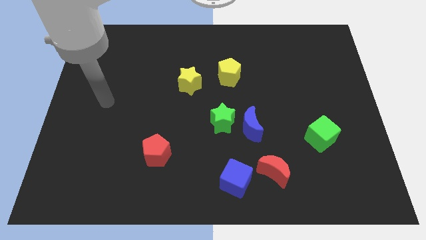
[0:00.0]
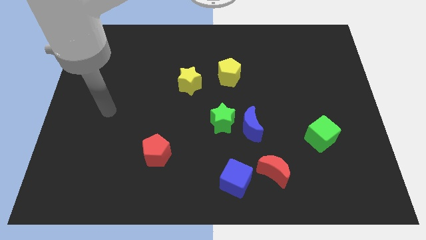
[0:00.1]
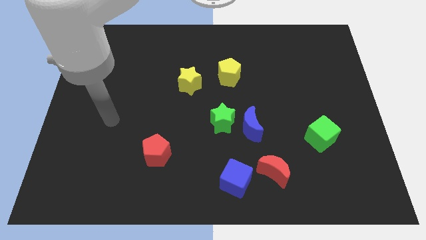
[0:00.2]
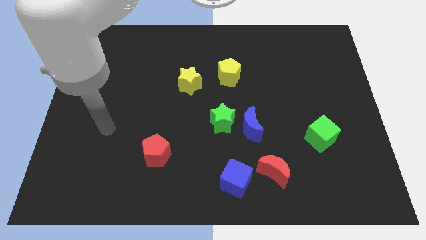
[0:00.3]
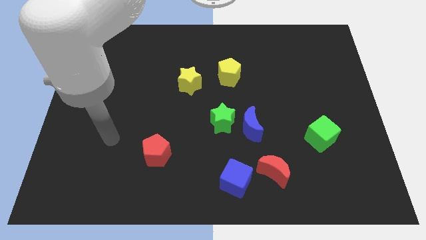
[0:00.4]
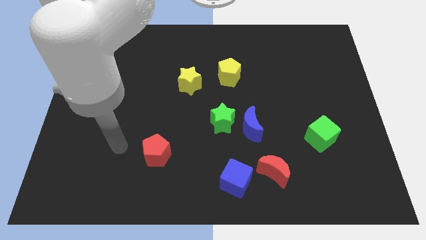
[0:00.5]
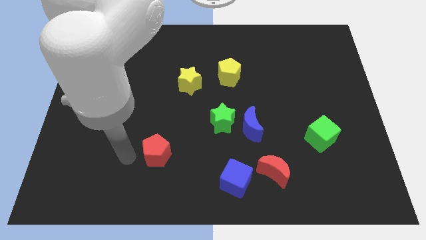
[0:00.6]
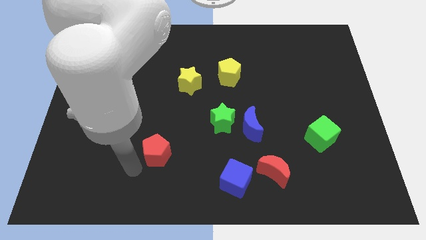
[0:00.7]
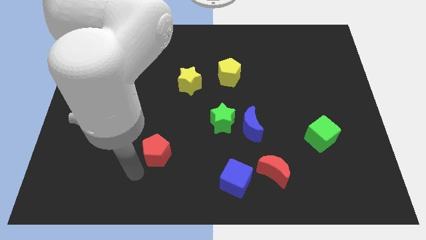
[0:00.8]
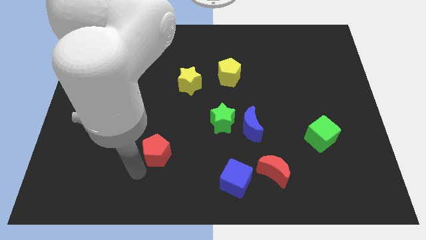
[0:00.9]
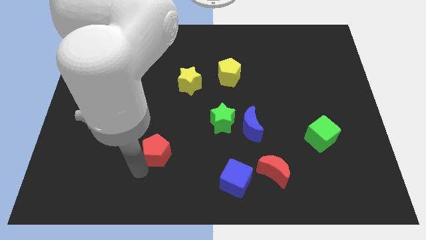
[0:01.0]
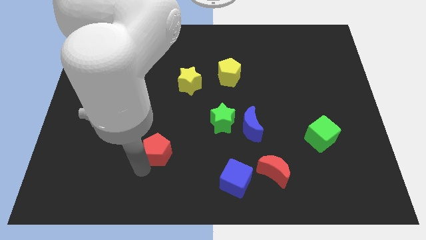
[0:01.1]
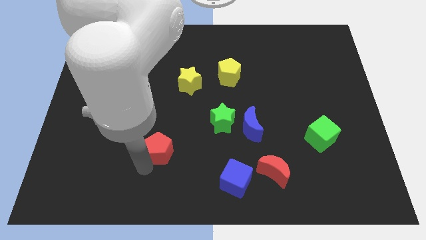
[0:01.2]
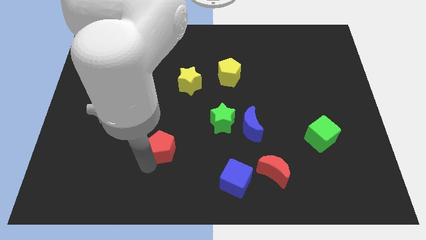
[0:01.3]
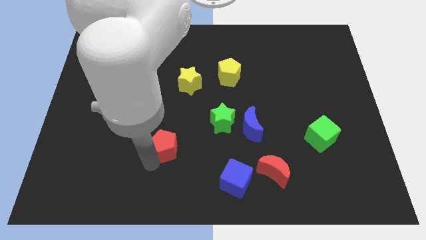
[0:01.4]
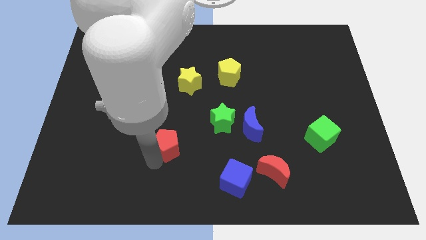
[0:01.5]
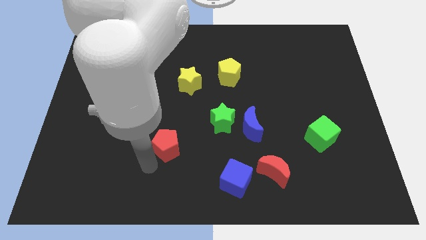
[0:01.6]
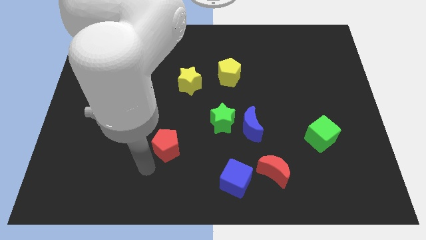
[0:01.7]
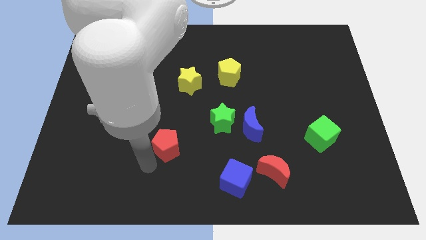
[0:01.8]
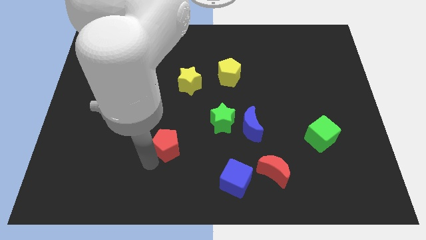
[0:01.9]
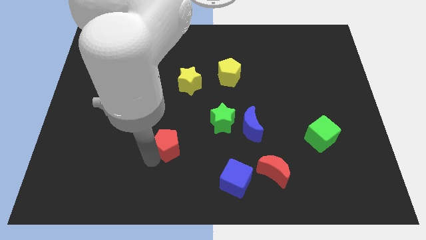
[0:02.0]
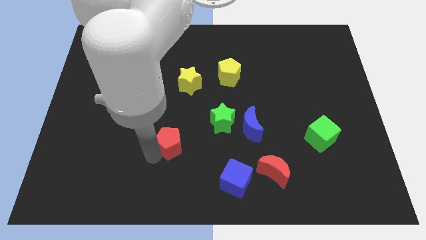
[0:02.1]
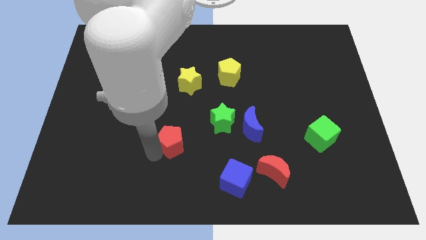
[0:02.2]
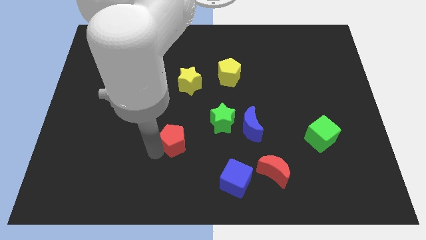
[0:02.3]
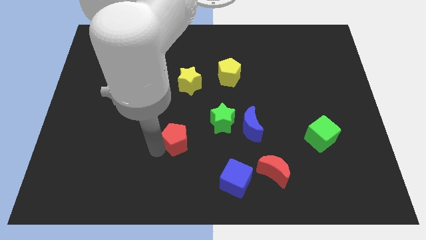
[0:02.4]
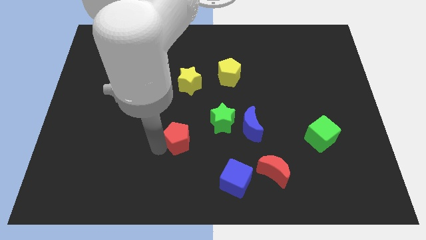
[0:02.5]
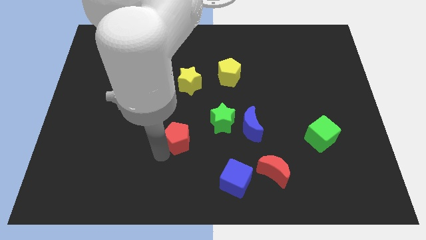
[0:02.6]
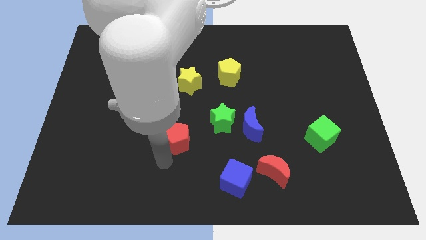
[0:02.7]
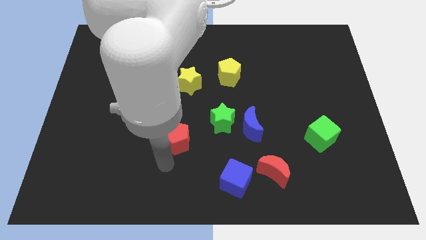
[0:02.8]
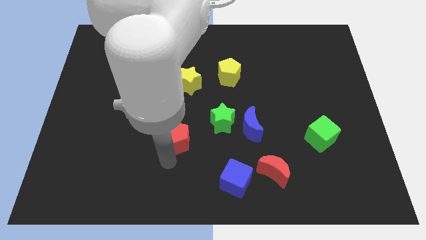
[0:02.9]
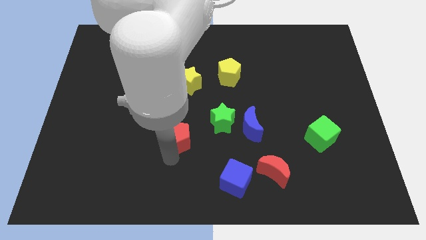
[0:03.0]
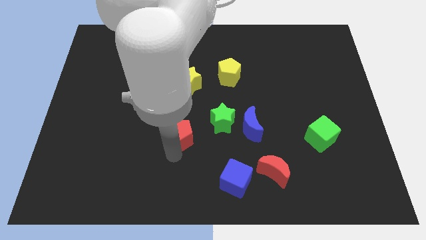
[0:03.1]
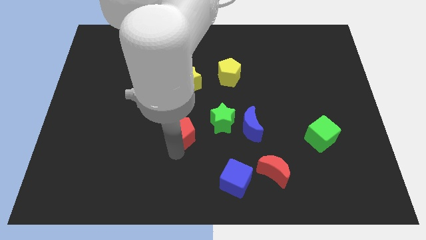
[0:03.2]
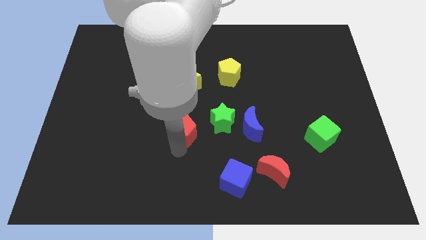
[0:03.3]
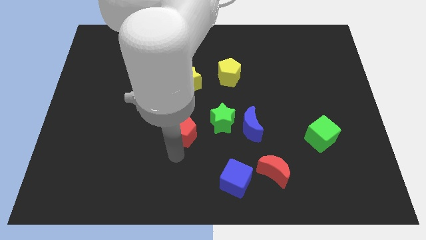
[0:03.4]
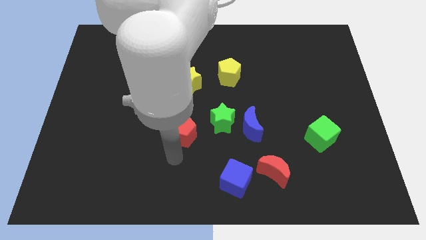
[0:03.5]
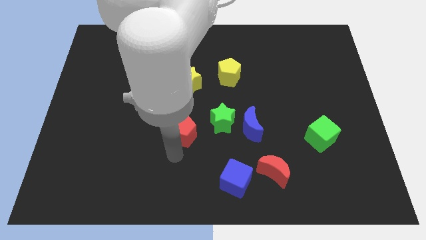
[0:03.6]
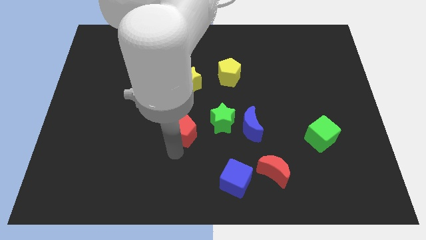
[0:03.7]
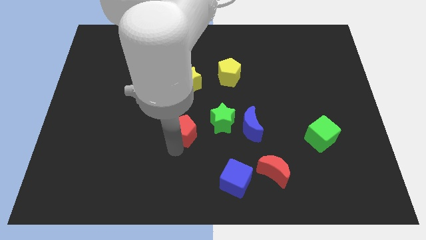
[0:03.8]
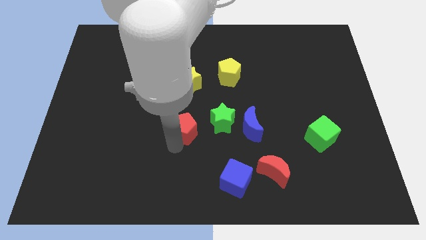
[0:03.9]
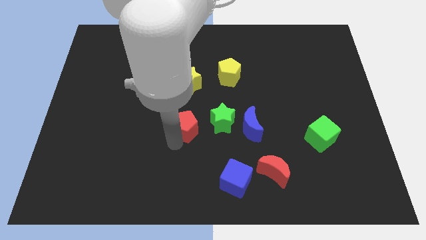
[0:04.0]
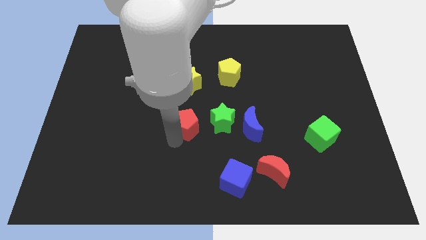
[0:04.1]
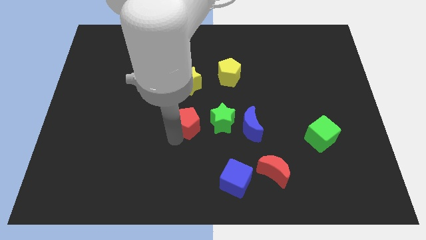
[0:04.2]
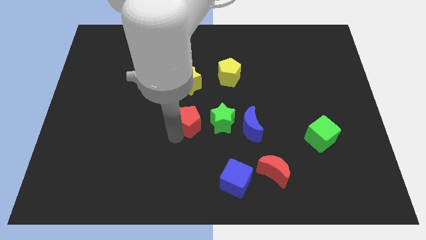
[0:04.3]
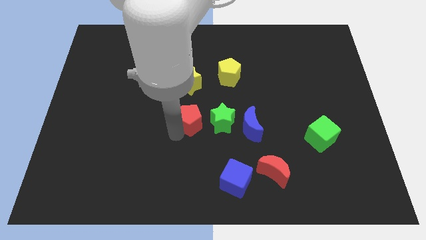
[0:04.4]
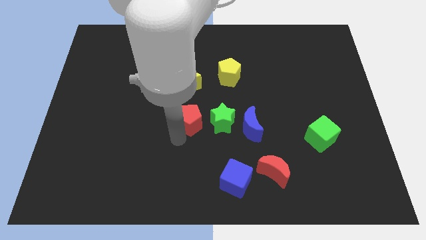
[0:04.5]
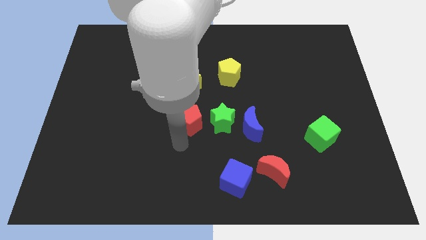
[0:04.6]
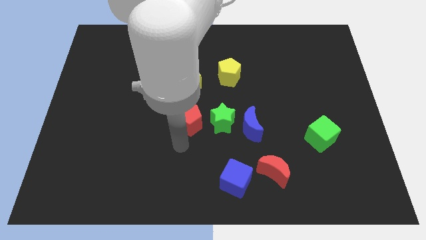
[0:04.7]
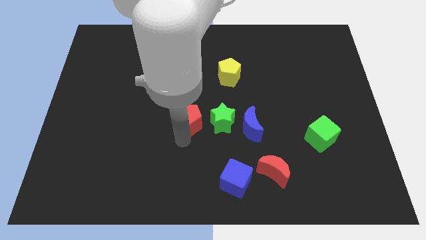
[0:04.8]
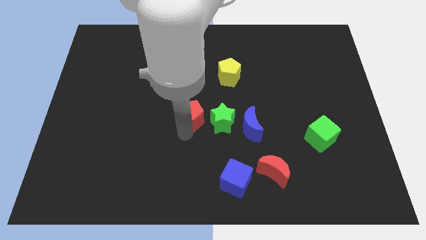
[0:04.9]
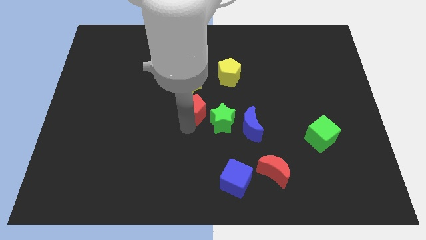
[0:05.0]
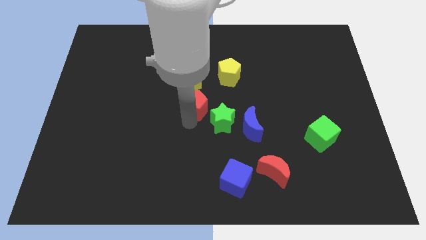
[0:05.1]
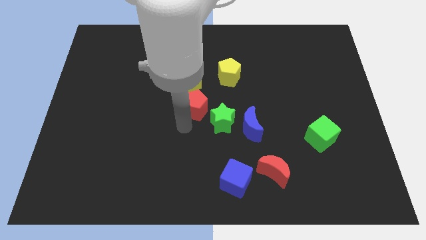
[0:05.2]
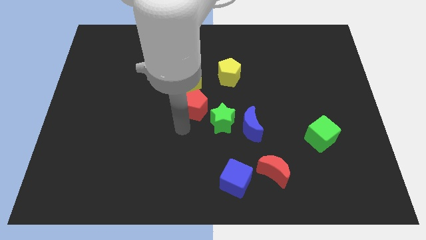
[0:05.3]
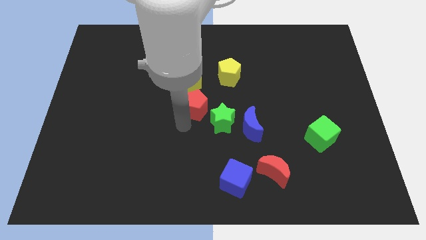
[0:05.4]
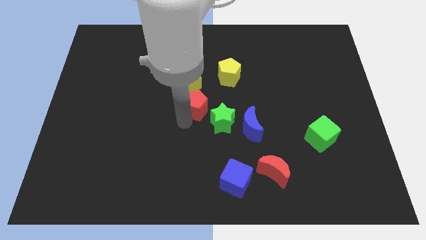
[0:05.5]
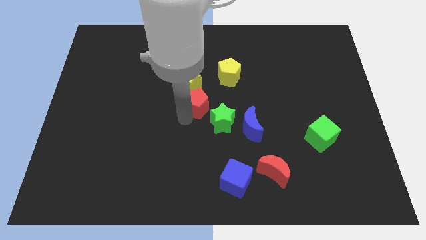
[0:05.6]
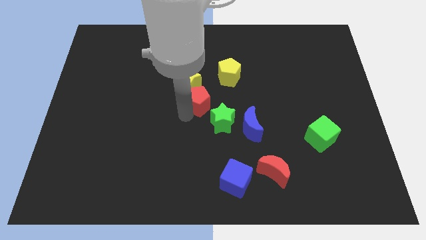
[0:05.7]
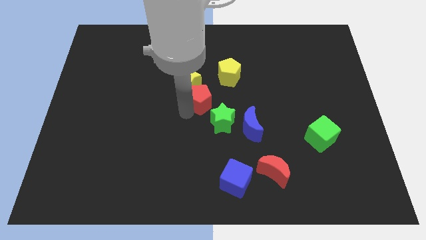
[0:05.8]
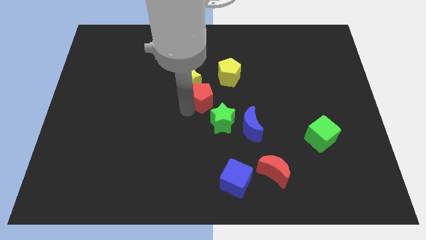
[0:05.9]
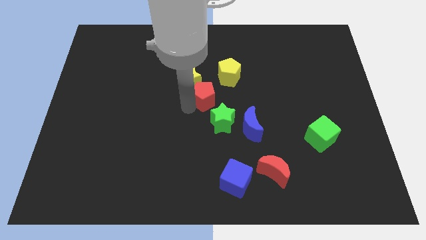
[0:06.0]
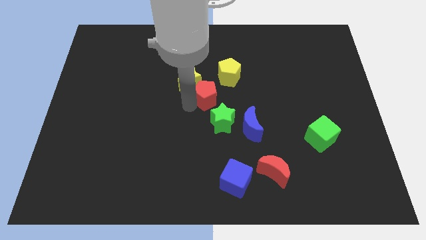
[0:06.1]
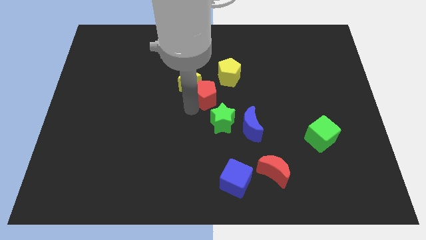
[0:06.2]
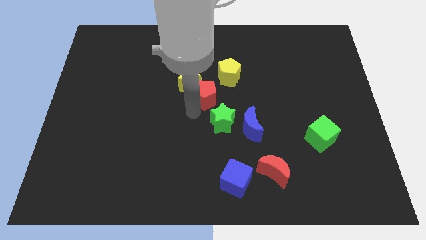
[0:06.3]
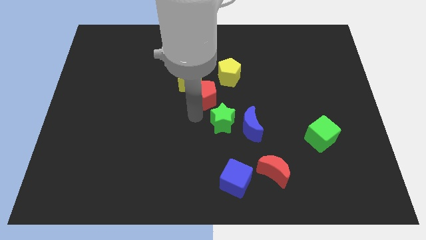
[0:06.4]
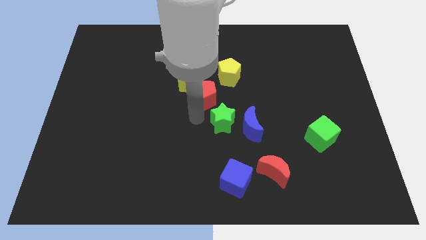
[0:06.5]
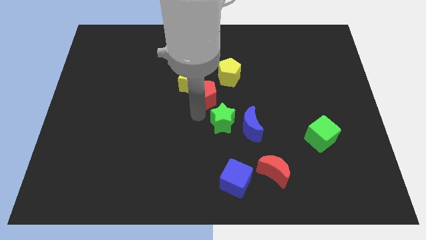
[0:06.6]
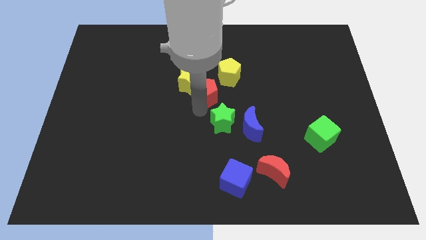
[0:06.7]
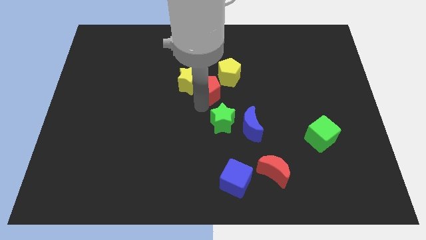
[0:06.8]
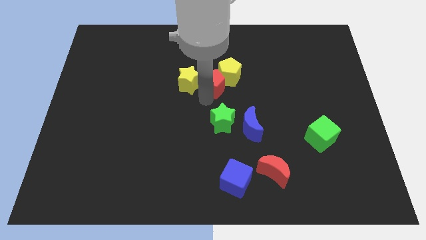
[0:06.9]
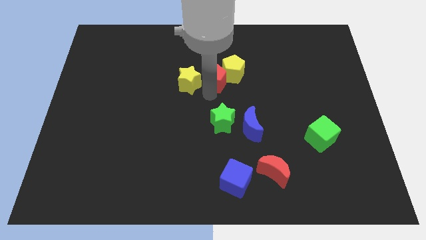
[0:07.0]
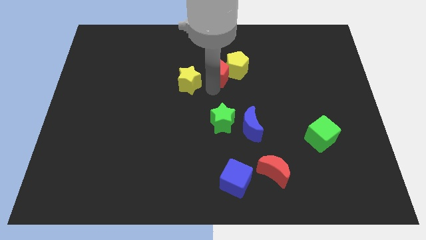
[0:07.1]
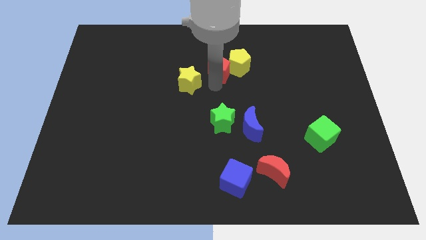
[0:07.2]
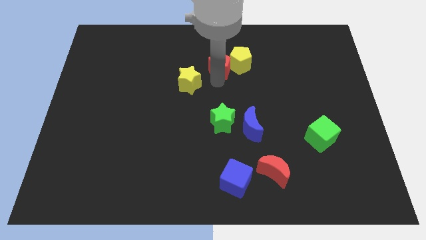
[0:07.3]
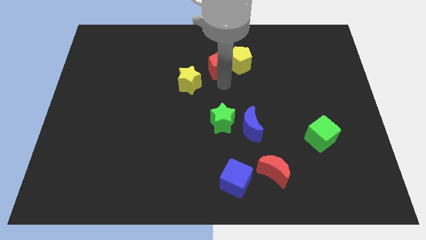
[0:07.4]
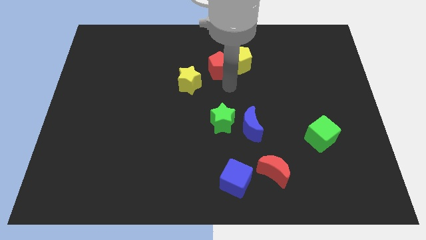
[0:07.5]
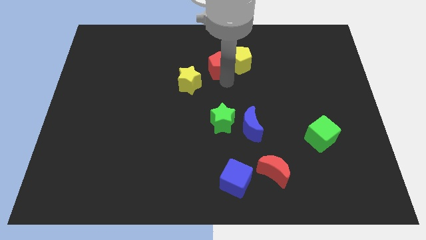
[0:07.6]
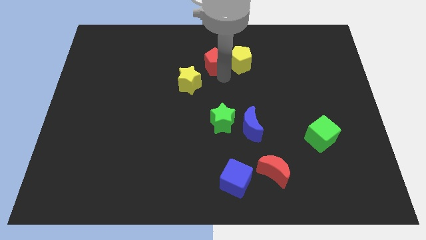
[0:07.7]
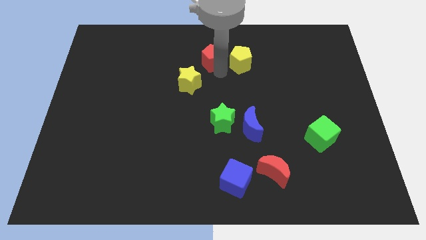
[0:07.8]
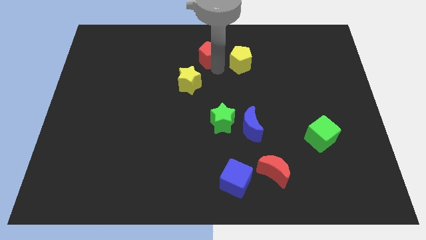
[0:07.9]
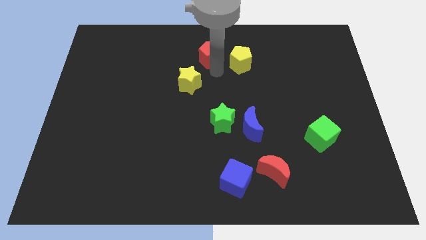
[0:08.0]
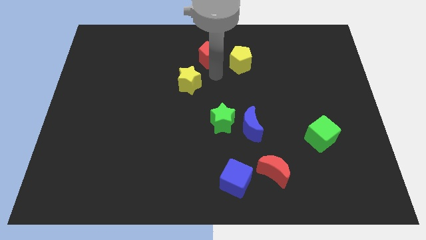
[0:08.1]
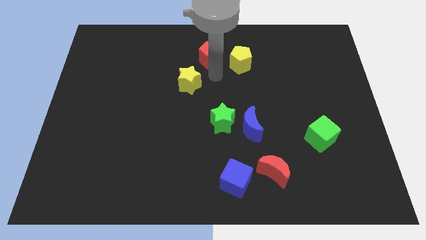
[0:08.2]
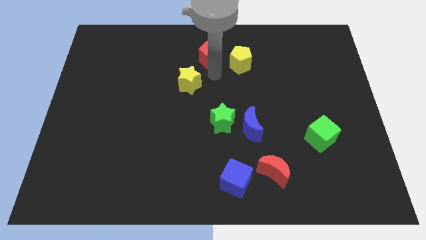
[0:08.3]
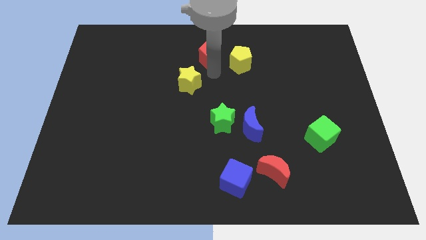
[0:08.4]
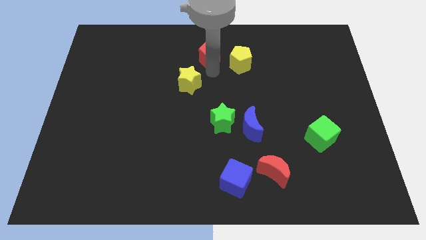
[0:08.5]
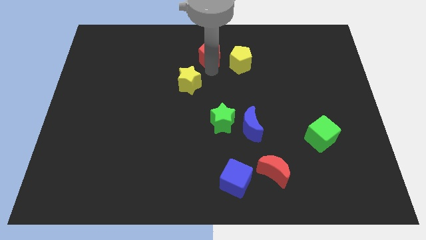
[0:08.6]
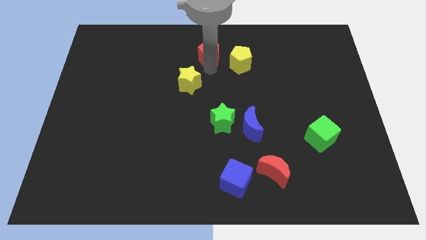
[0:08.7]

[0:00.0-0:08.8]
move the red pentagon to the towards your base
